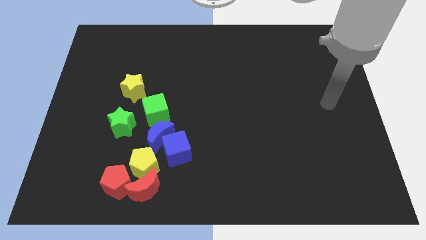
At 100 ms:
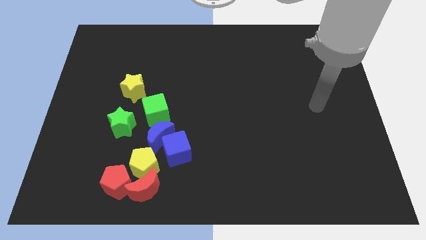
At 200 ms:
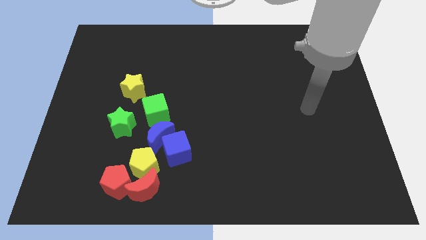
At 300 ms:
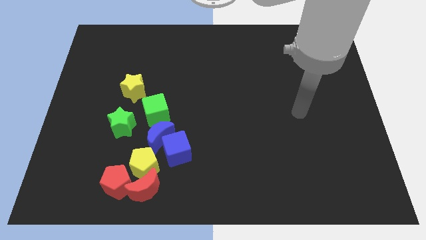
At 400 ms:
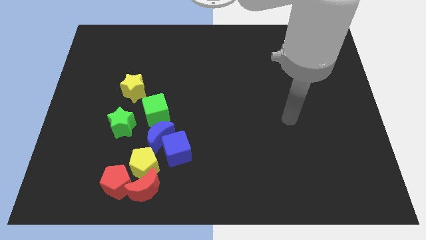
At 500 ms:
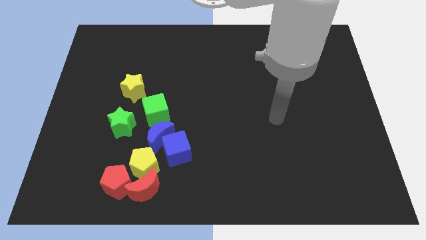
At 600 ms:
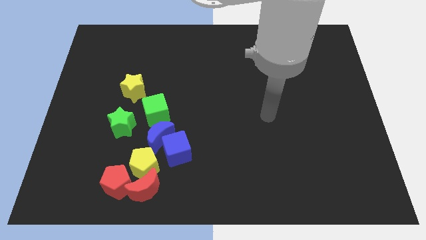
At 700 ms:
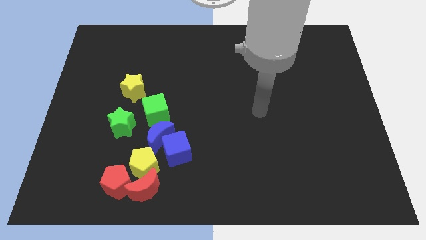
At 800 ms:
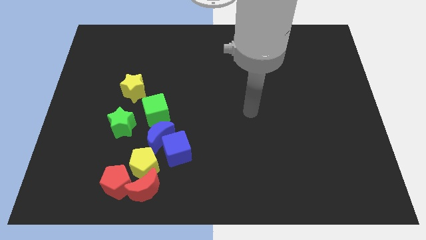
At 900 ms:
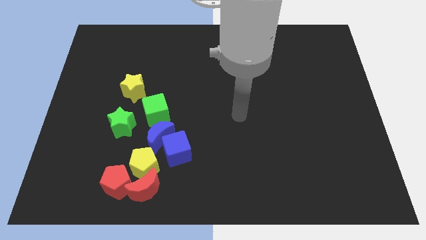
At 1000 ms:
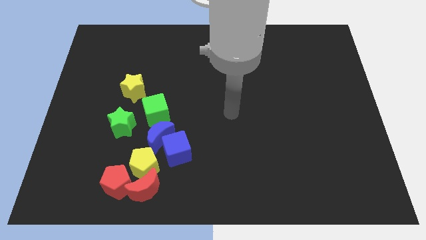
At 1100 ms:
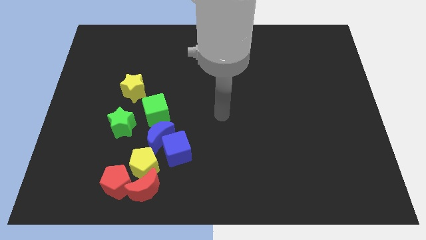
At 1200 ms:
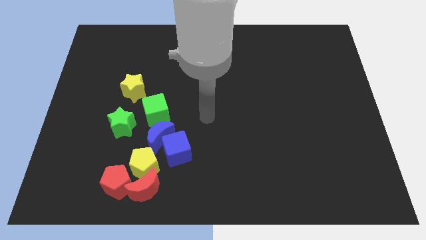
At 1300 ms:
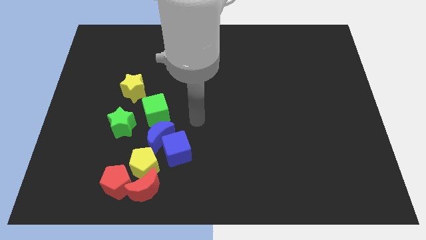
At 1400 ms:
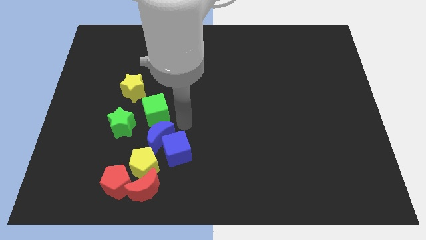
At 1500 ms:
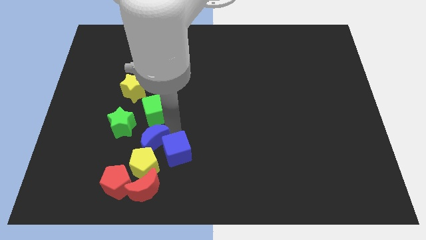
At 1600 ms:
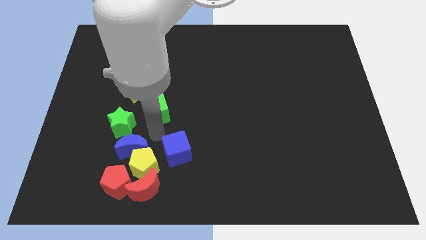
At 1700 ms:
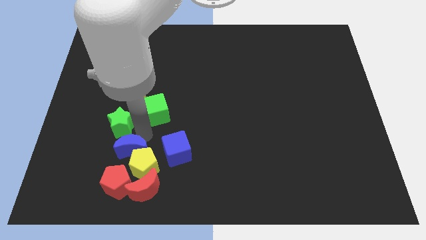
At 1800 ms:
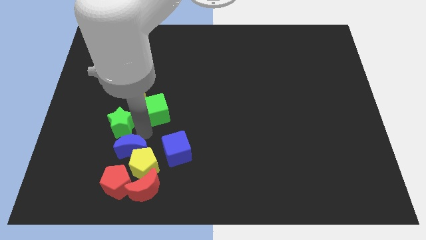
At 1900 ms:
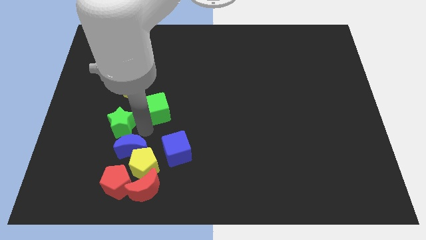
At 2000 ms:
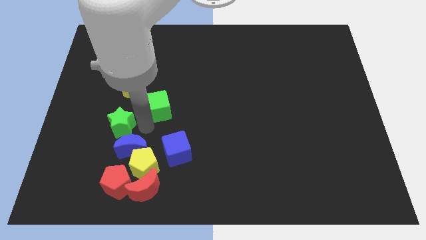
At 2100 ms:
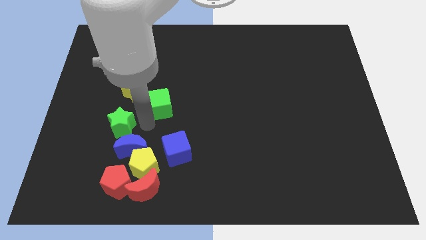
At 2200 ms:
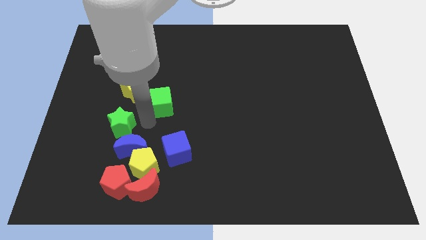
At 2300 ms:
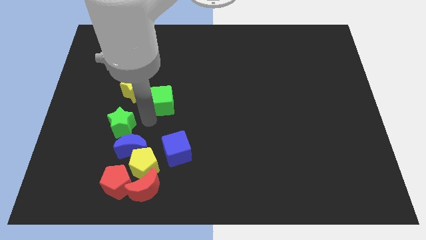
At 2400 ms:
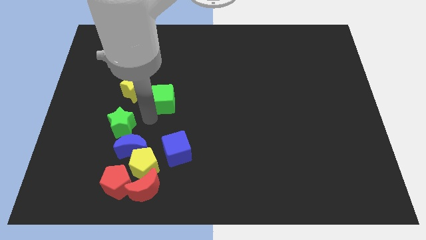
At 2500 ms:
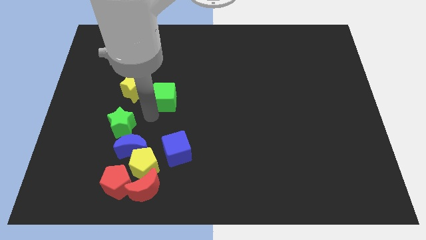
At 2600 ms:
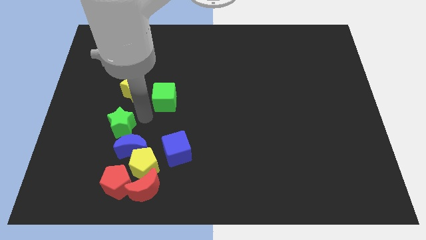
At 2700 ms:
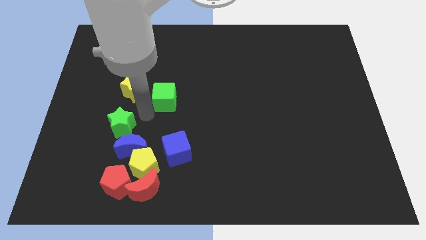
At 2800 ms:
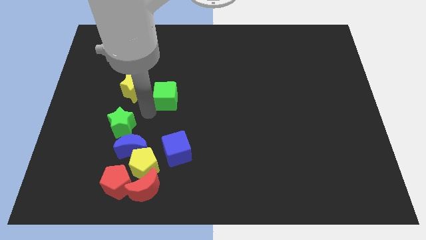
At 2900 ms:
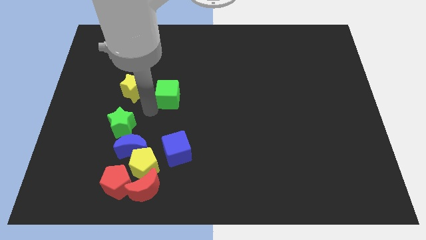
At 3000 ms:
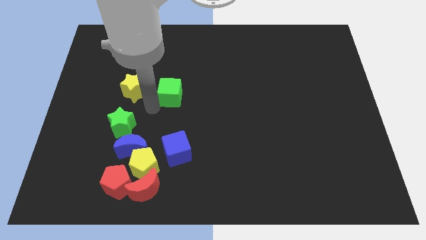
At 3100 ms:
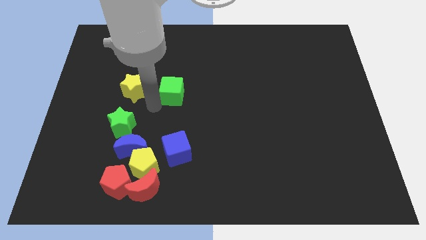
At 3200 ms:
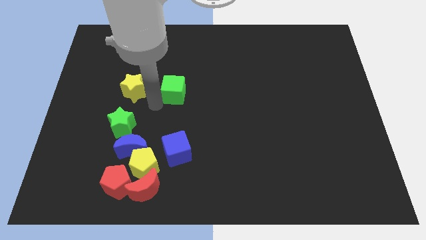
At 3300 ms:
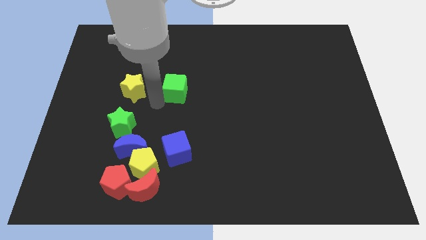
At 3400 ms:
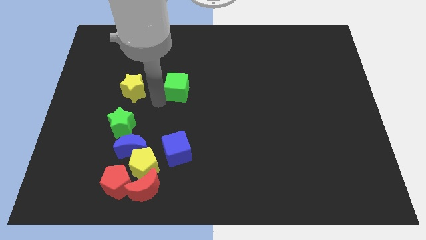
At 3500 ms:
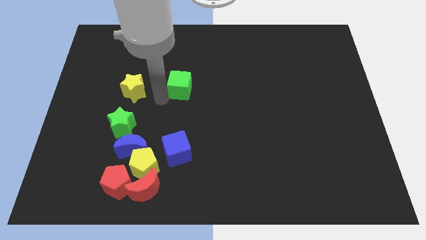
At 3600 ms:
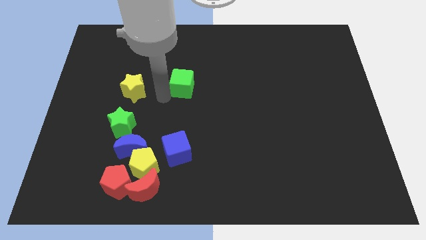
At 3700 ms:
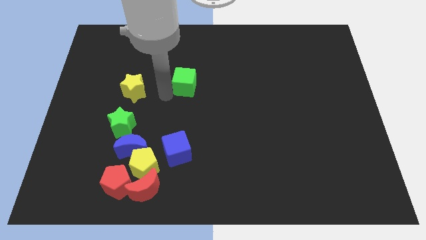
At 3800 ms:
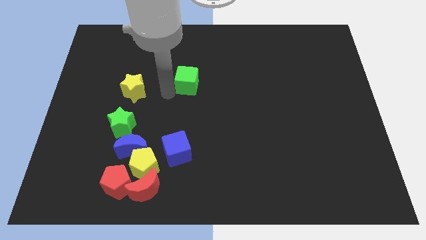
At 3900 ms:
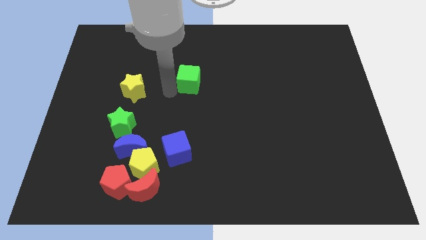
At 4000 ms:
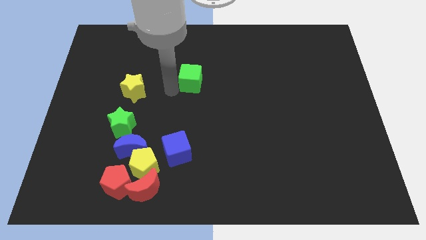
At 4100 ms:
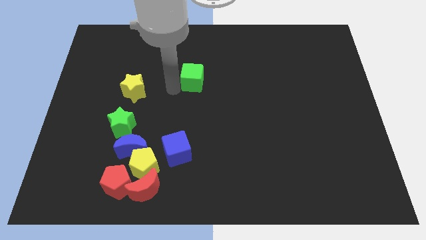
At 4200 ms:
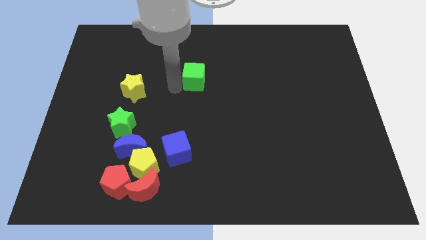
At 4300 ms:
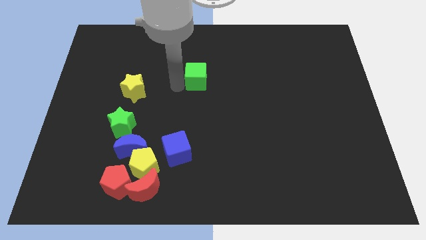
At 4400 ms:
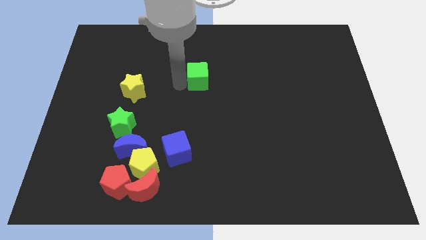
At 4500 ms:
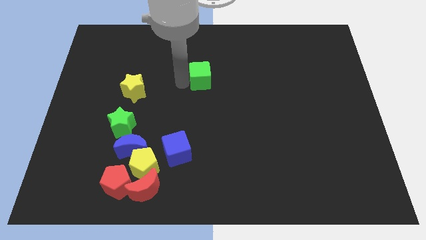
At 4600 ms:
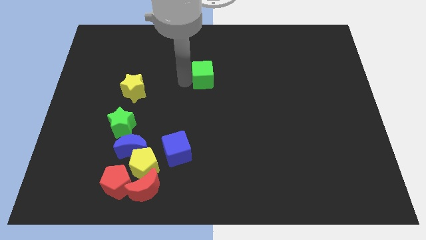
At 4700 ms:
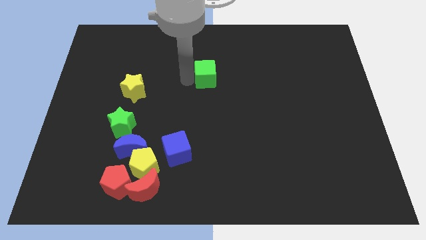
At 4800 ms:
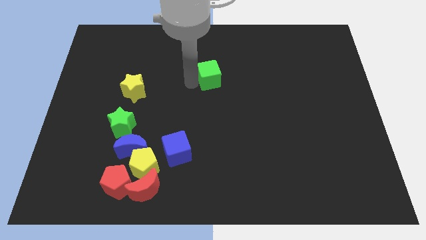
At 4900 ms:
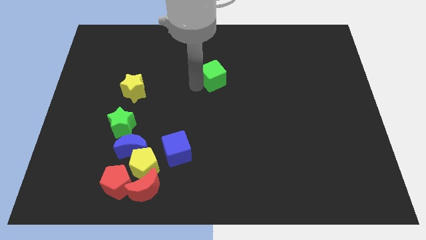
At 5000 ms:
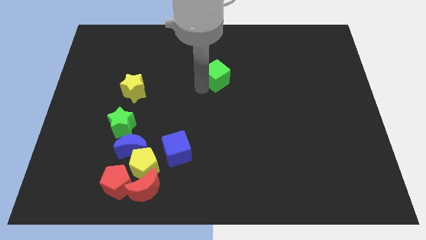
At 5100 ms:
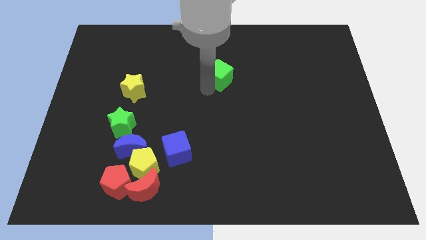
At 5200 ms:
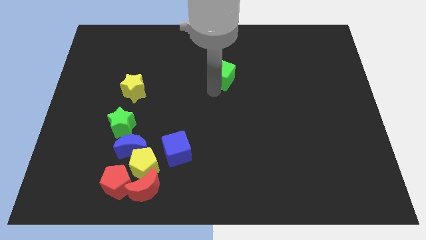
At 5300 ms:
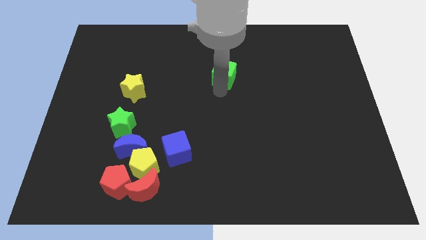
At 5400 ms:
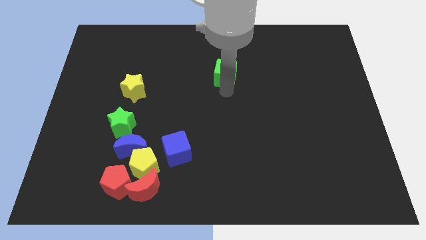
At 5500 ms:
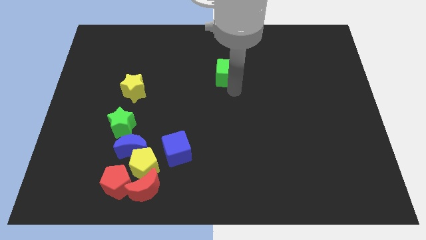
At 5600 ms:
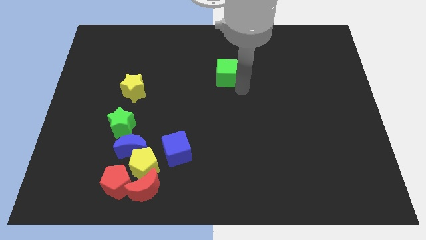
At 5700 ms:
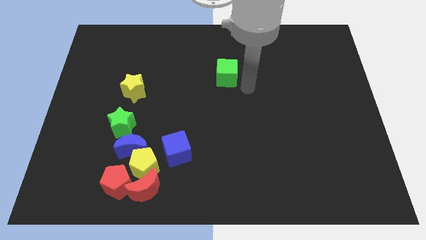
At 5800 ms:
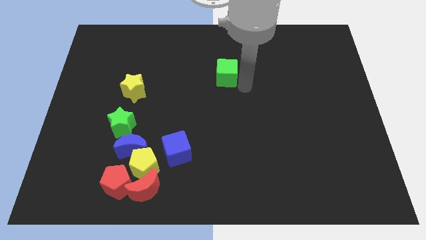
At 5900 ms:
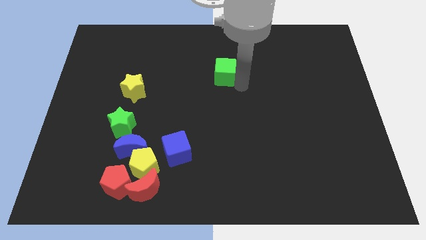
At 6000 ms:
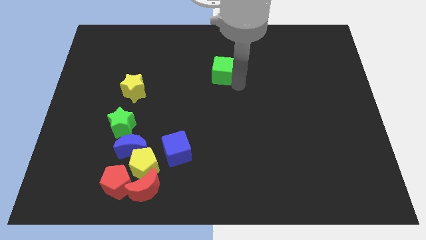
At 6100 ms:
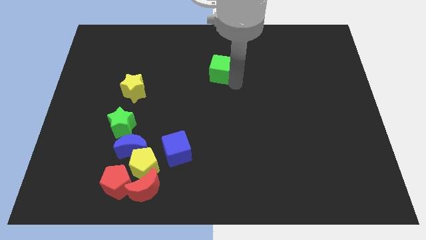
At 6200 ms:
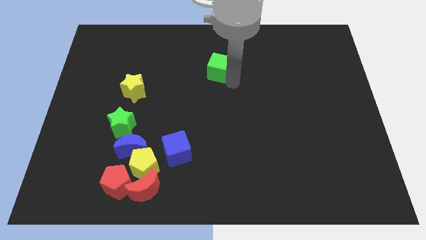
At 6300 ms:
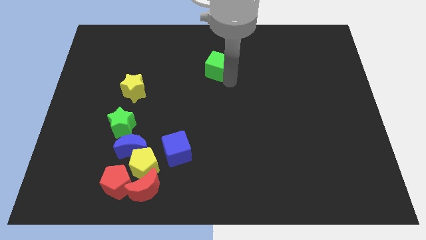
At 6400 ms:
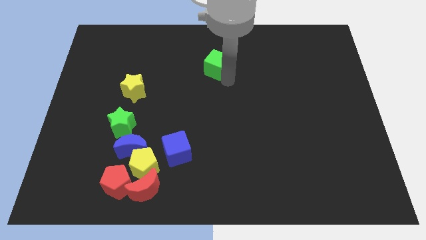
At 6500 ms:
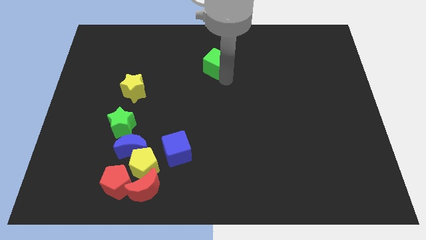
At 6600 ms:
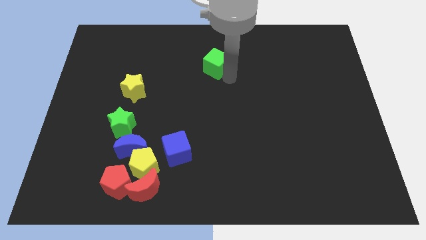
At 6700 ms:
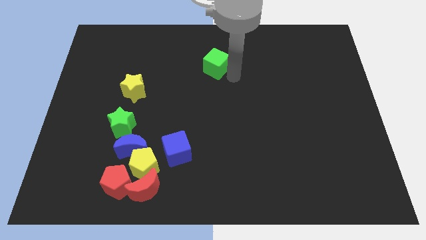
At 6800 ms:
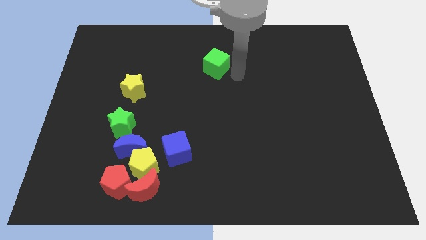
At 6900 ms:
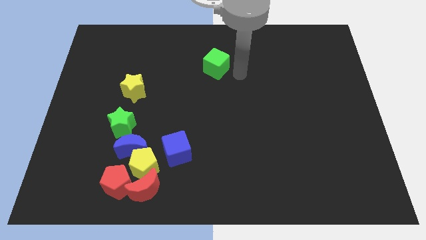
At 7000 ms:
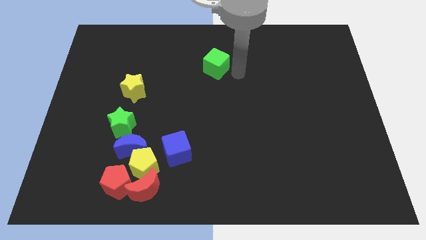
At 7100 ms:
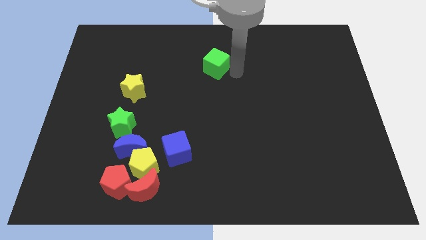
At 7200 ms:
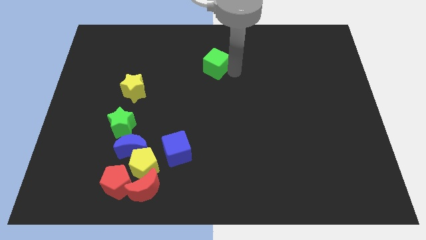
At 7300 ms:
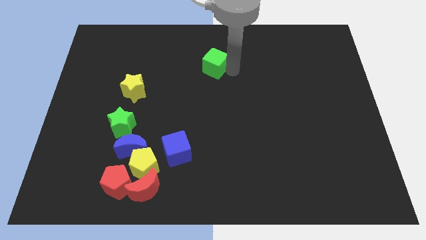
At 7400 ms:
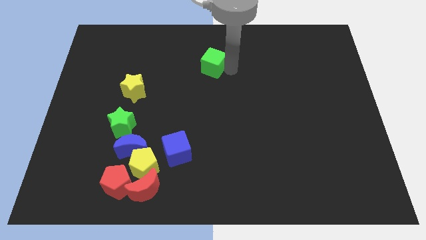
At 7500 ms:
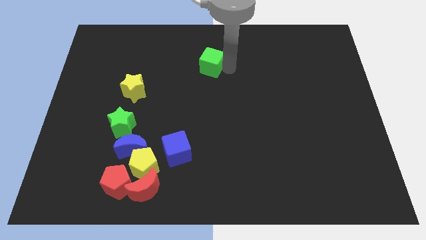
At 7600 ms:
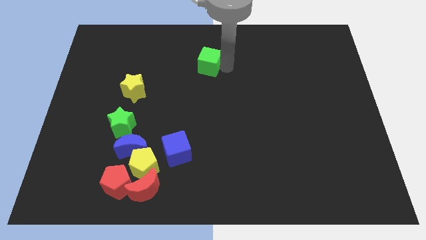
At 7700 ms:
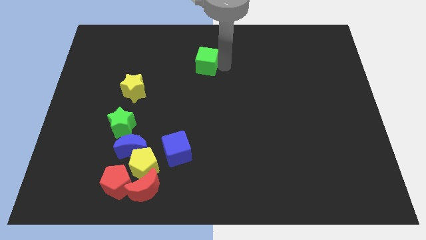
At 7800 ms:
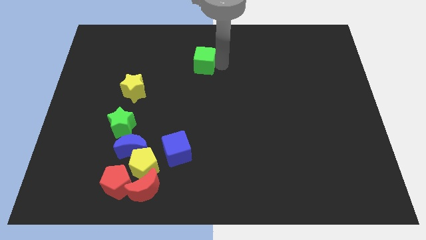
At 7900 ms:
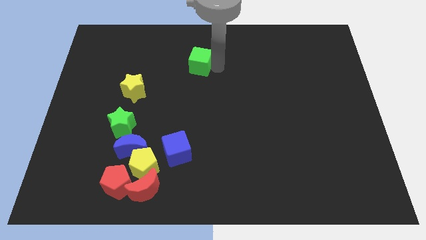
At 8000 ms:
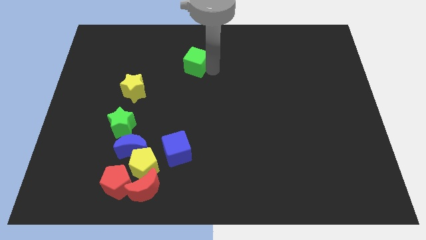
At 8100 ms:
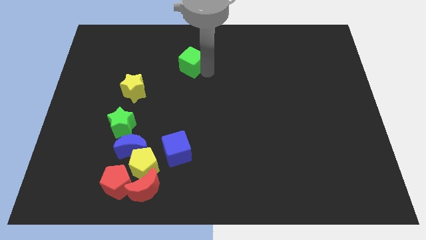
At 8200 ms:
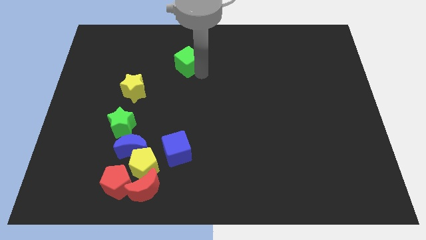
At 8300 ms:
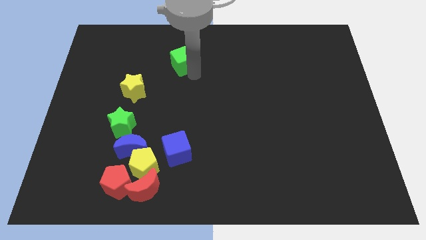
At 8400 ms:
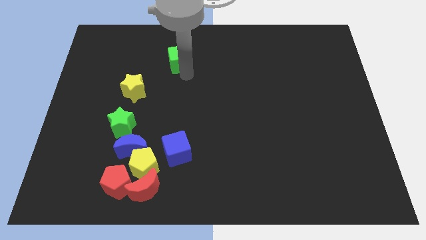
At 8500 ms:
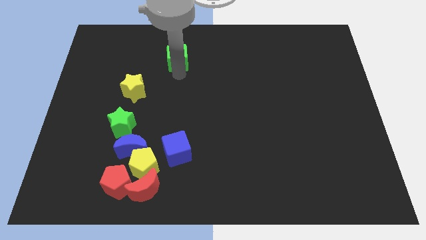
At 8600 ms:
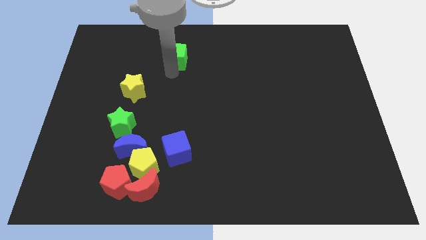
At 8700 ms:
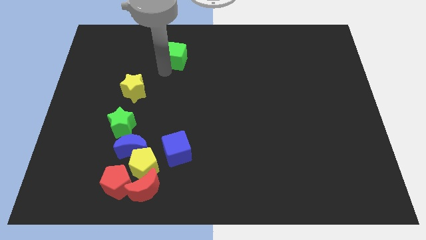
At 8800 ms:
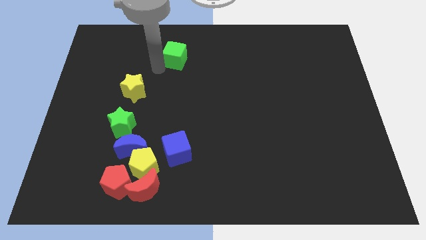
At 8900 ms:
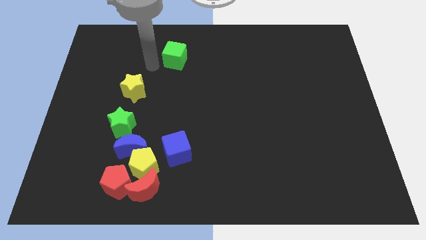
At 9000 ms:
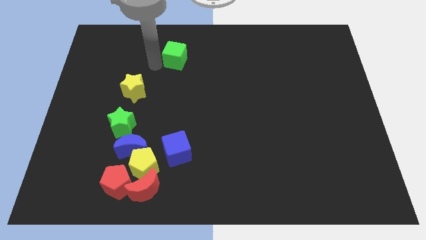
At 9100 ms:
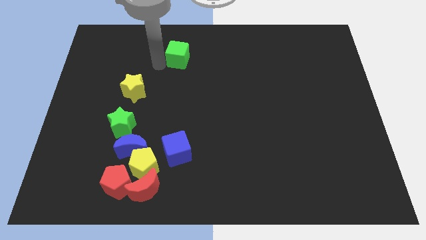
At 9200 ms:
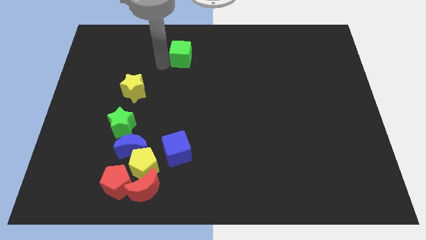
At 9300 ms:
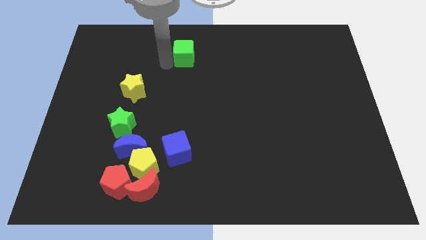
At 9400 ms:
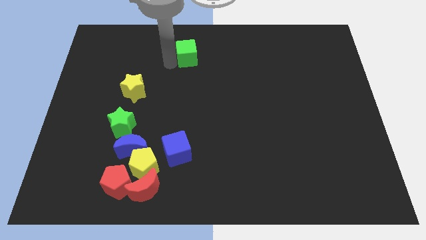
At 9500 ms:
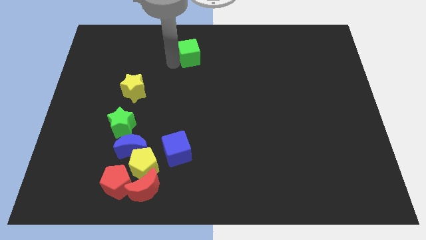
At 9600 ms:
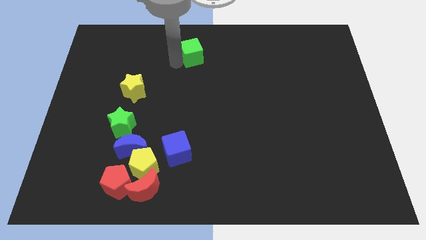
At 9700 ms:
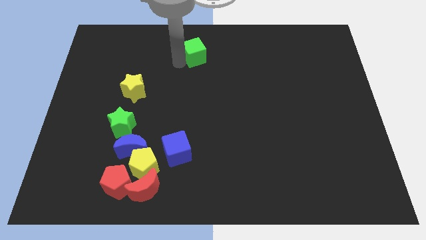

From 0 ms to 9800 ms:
slide the green cube to the top side
